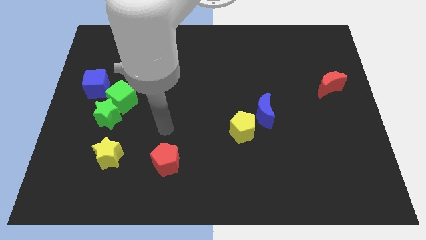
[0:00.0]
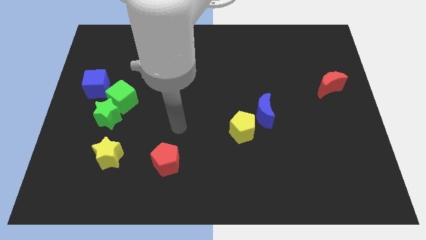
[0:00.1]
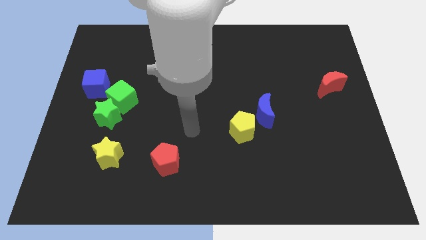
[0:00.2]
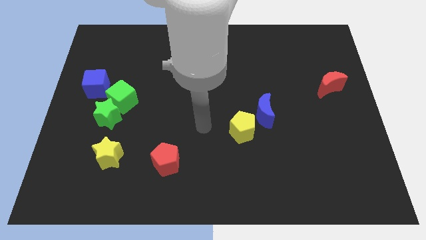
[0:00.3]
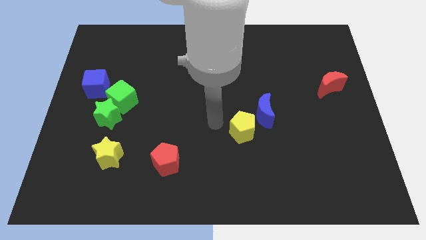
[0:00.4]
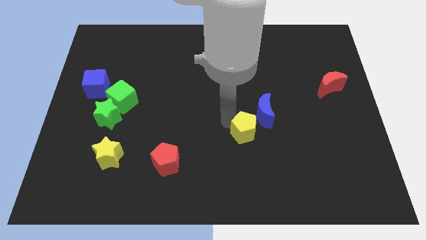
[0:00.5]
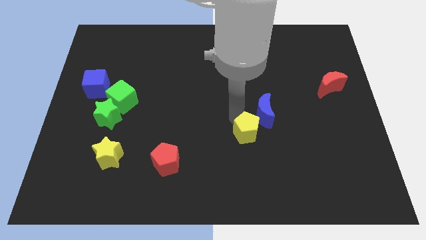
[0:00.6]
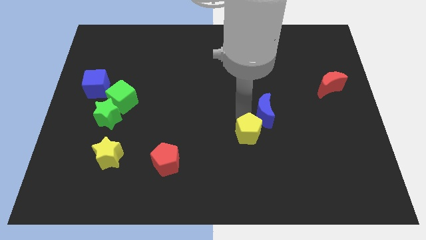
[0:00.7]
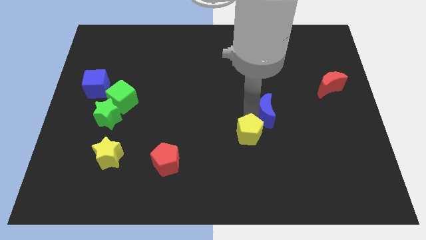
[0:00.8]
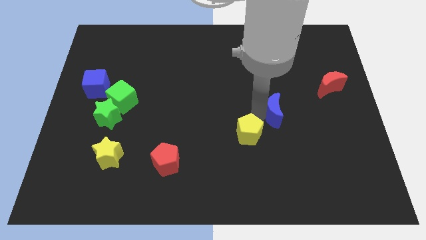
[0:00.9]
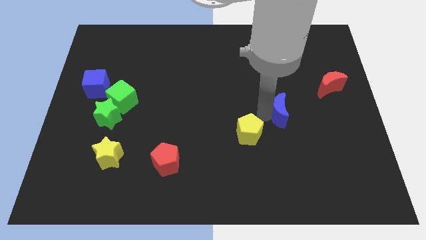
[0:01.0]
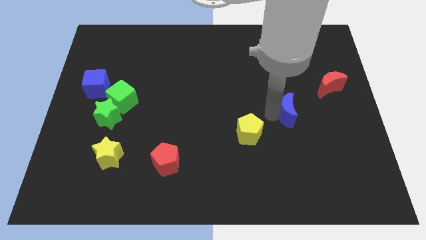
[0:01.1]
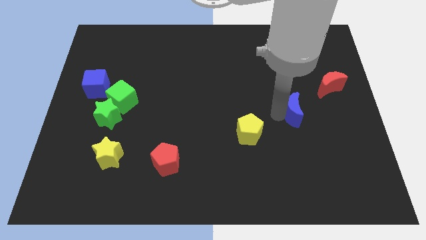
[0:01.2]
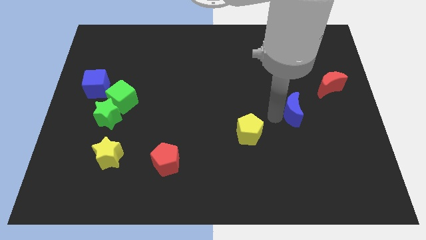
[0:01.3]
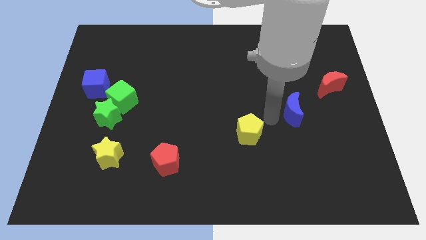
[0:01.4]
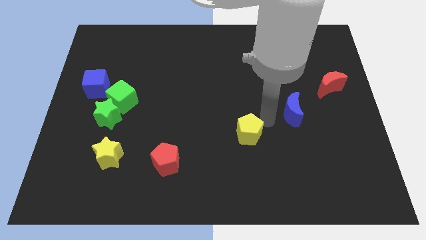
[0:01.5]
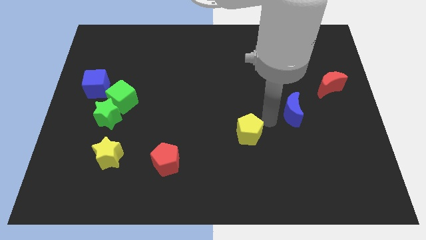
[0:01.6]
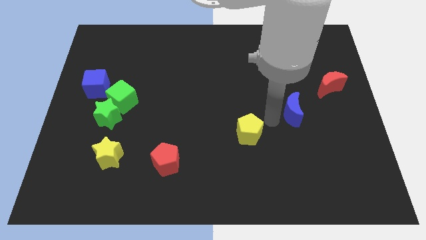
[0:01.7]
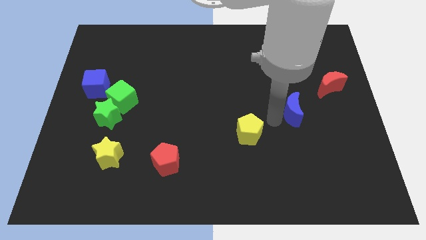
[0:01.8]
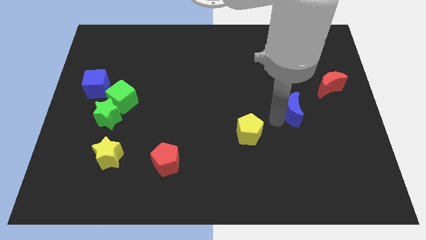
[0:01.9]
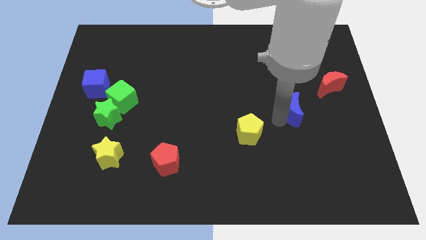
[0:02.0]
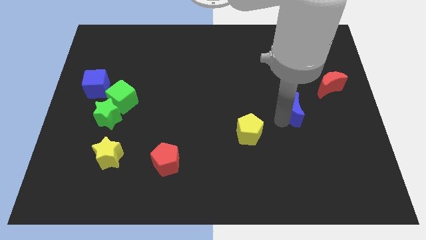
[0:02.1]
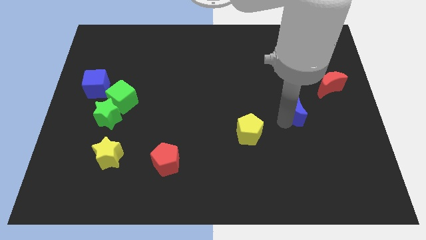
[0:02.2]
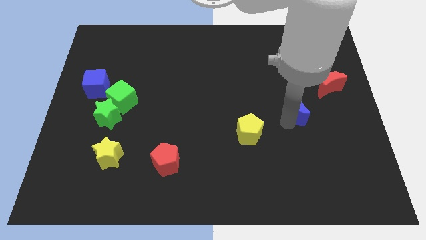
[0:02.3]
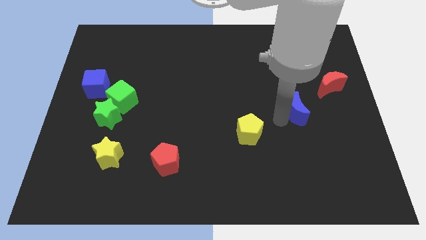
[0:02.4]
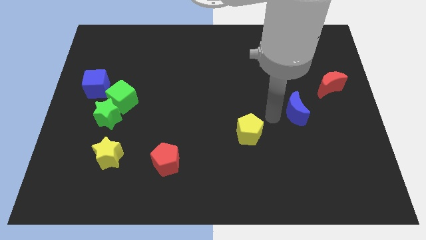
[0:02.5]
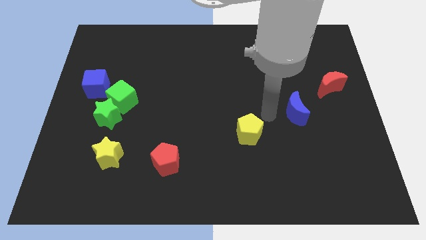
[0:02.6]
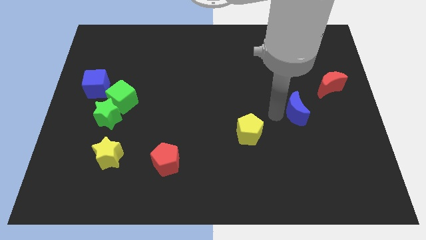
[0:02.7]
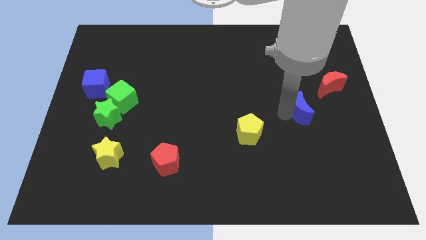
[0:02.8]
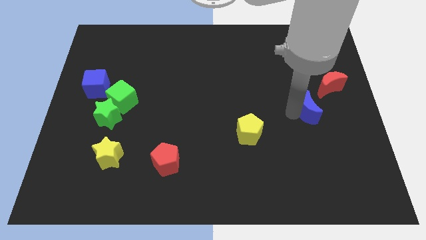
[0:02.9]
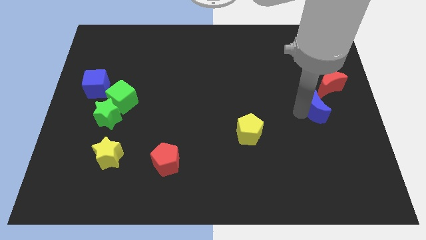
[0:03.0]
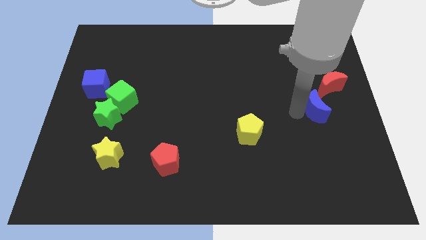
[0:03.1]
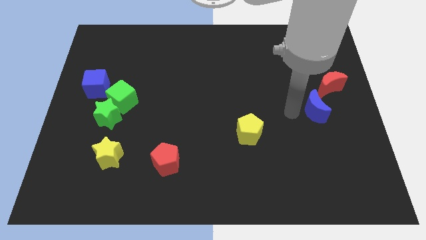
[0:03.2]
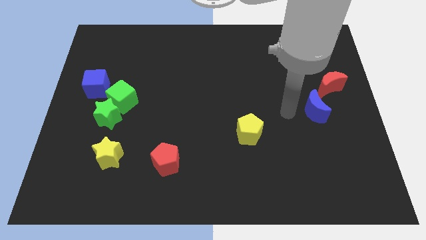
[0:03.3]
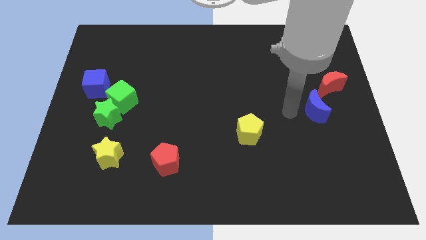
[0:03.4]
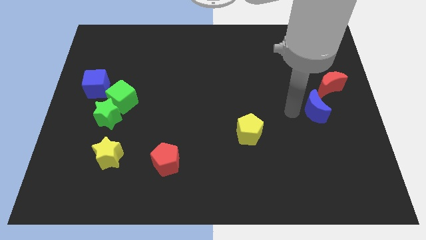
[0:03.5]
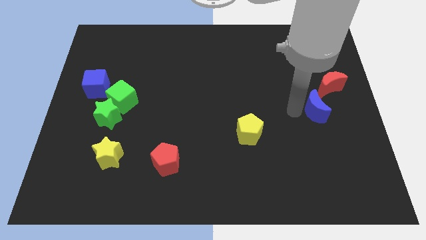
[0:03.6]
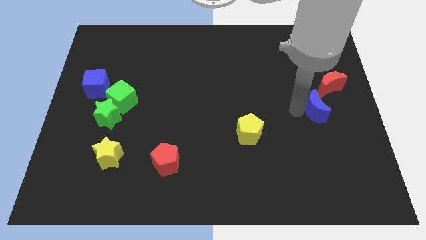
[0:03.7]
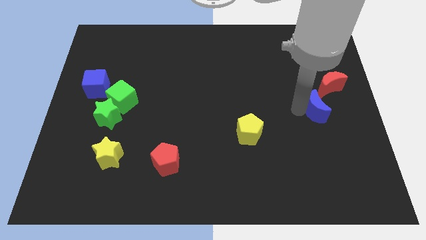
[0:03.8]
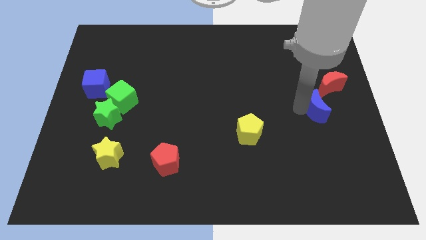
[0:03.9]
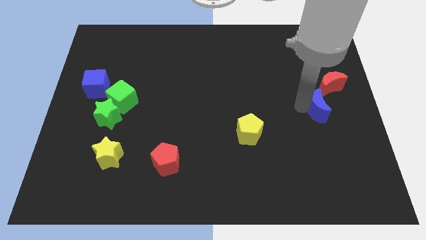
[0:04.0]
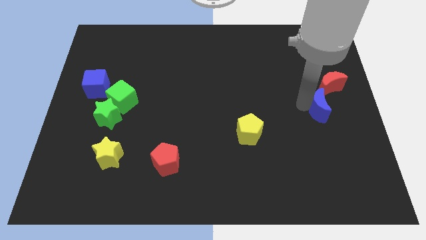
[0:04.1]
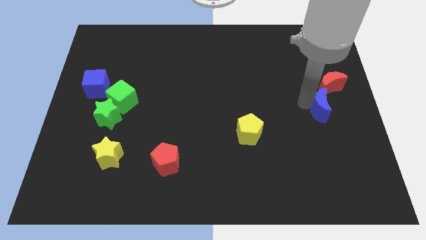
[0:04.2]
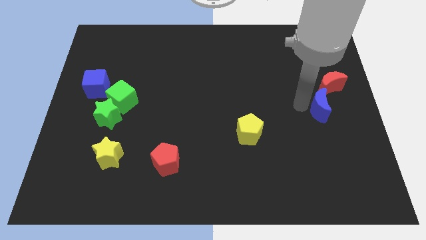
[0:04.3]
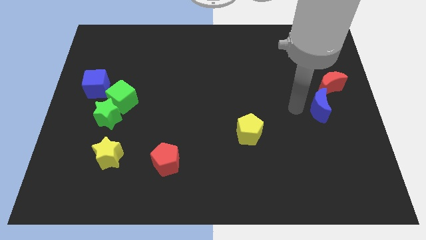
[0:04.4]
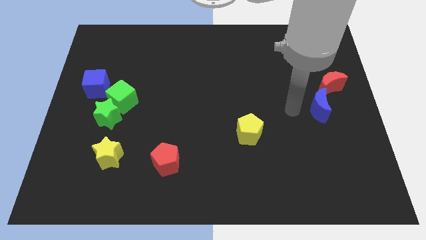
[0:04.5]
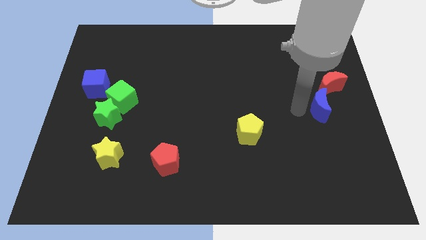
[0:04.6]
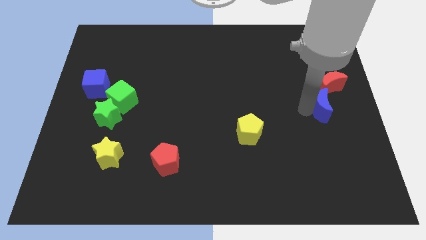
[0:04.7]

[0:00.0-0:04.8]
move the blue moon to the right side of the board

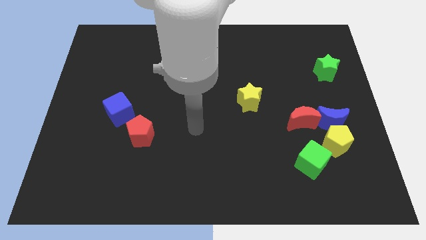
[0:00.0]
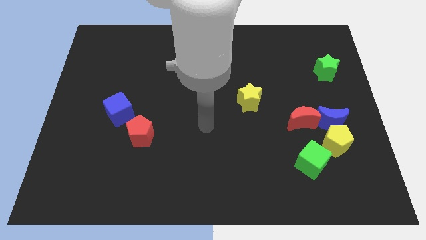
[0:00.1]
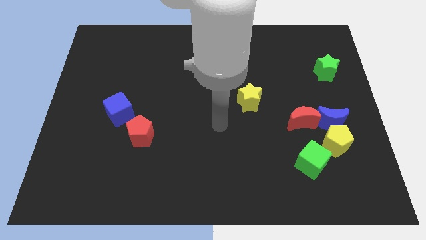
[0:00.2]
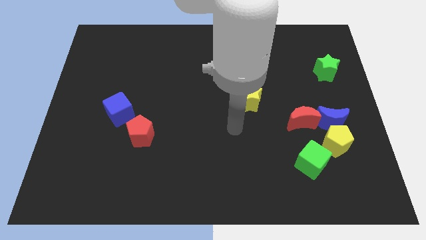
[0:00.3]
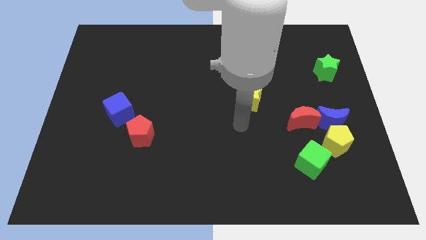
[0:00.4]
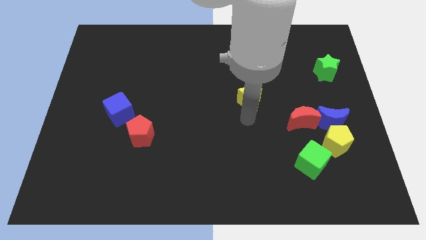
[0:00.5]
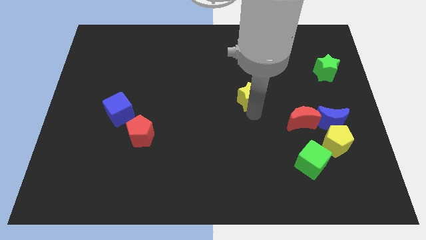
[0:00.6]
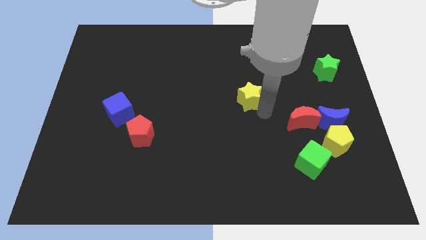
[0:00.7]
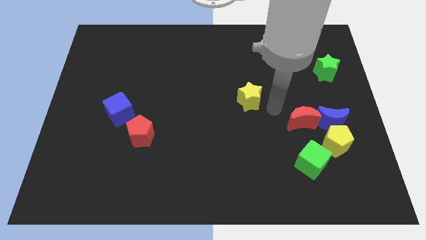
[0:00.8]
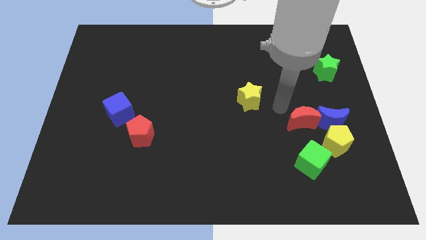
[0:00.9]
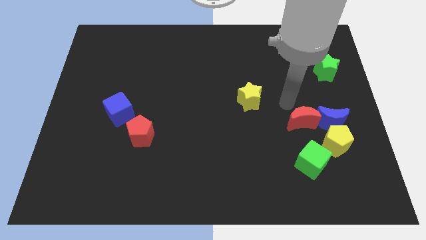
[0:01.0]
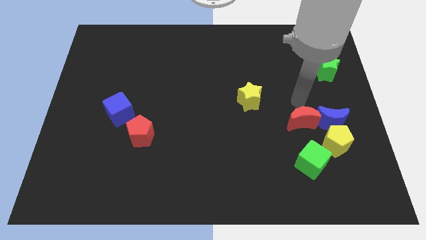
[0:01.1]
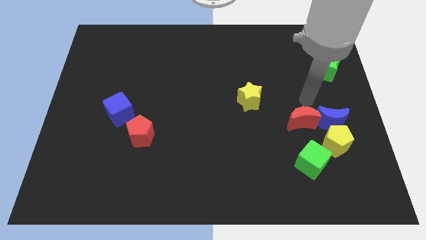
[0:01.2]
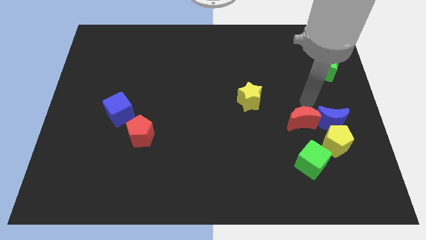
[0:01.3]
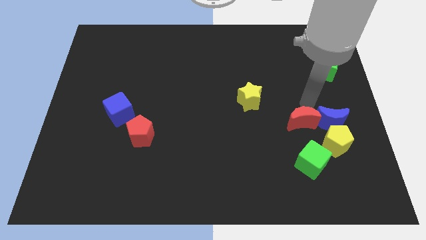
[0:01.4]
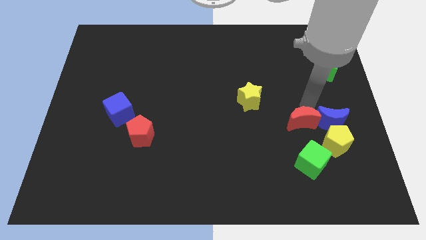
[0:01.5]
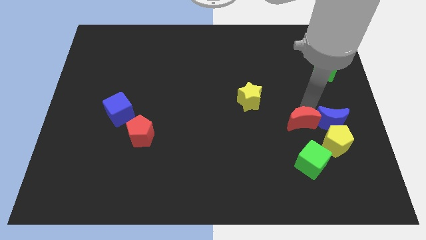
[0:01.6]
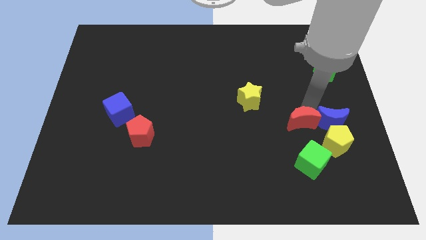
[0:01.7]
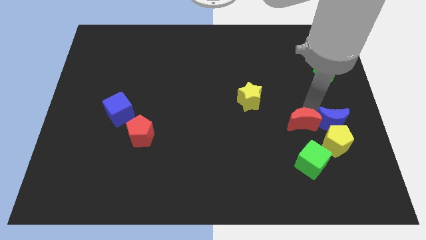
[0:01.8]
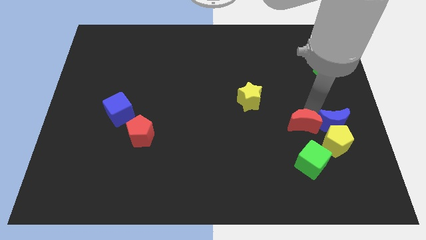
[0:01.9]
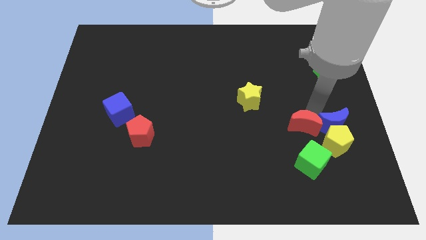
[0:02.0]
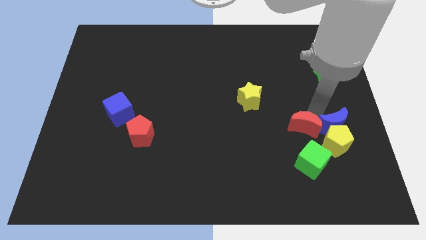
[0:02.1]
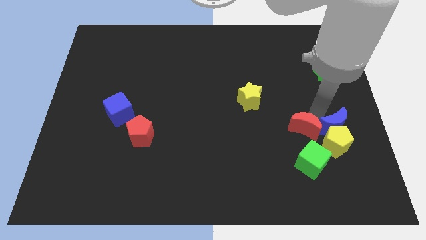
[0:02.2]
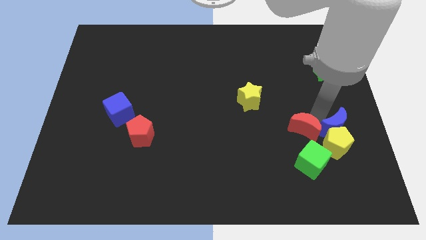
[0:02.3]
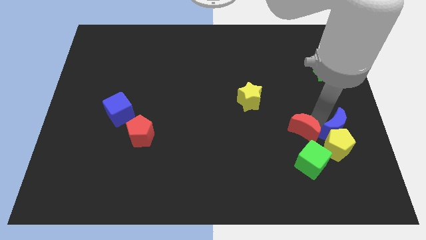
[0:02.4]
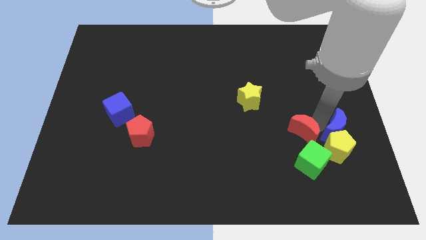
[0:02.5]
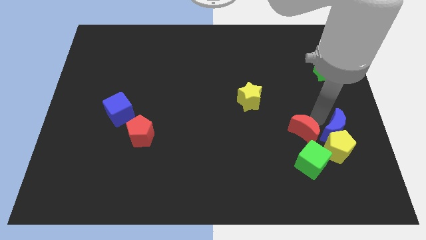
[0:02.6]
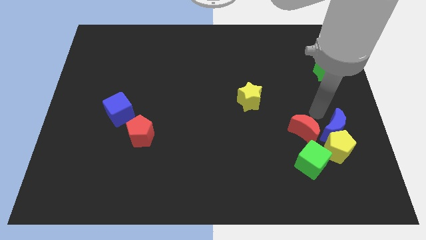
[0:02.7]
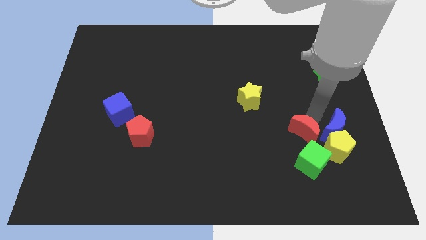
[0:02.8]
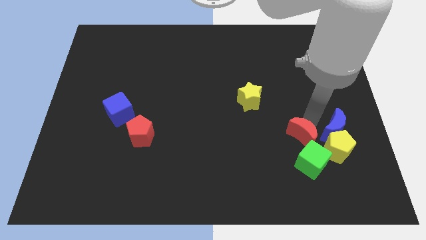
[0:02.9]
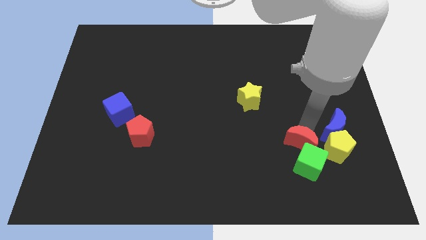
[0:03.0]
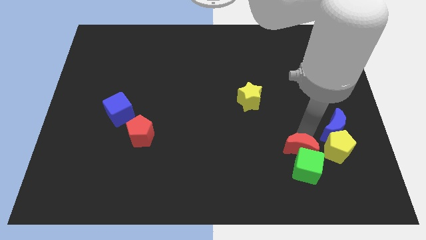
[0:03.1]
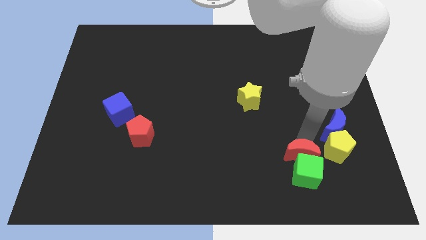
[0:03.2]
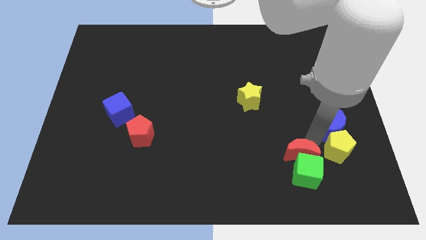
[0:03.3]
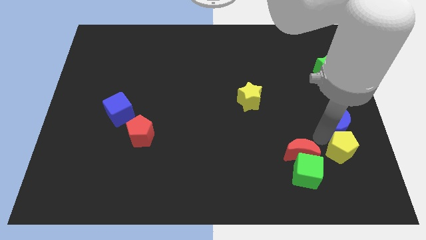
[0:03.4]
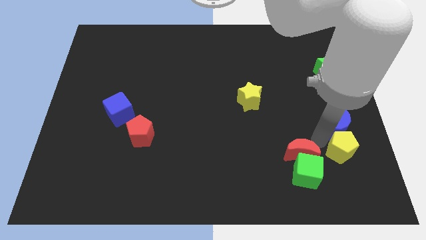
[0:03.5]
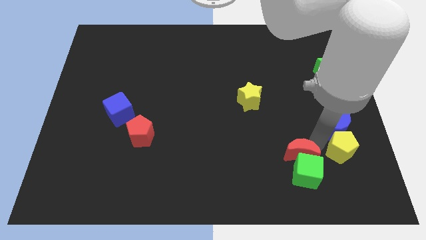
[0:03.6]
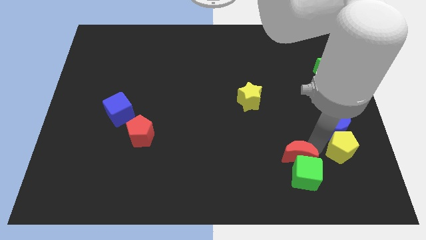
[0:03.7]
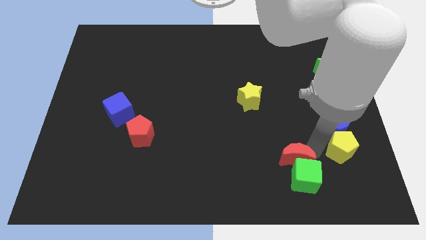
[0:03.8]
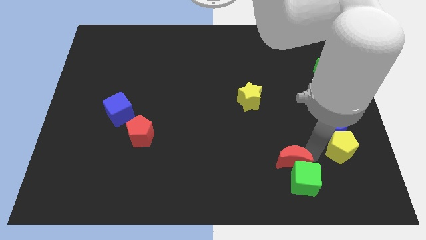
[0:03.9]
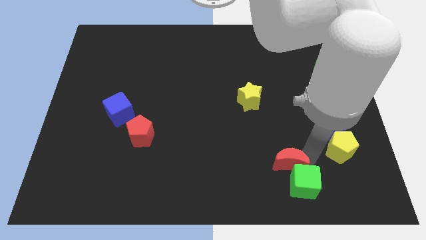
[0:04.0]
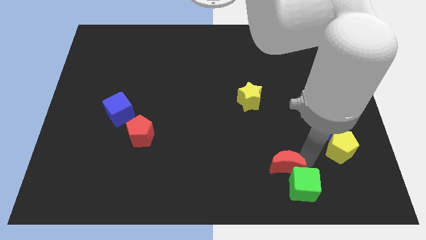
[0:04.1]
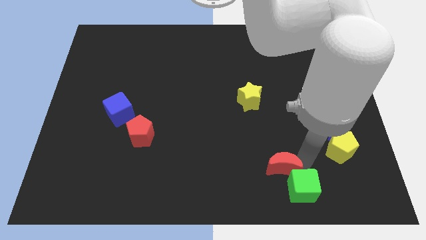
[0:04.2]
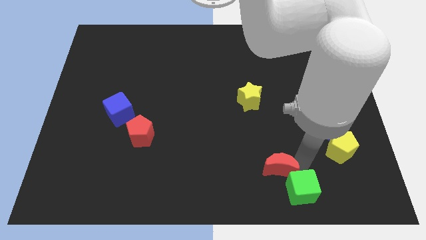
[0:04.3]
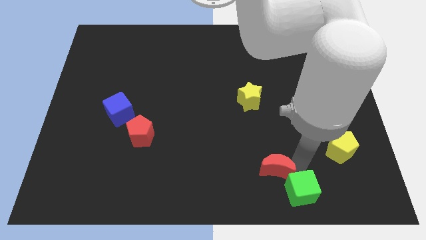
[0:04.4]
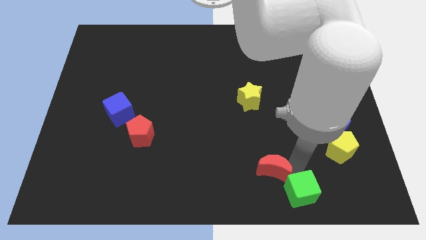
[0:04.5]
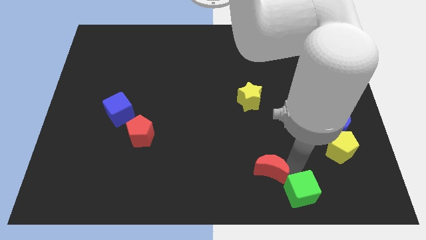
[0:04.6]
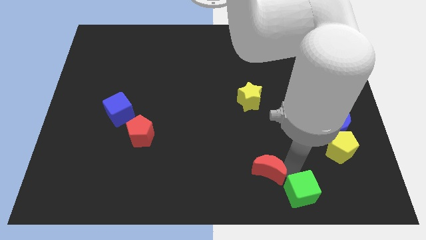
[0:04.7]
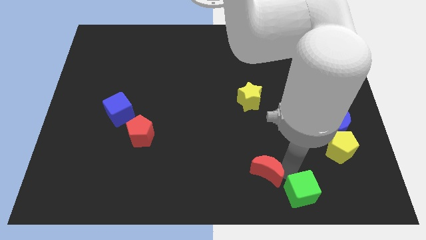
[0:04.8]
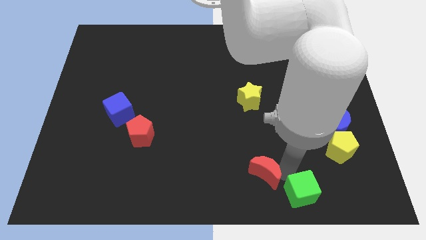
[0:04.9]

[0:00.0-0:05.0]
push the red moon to the bottom side
